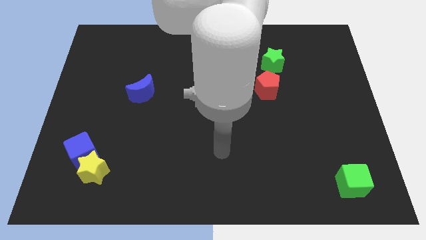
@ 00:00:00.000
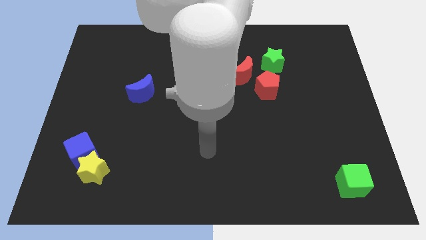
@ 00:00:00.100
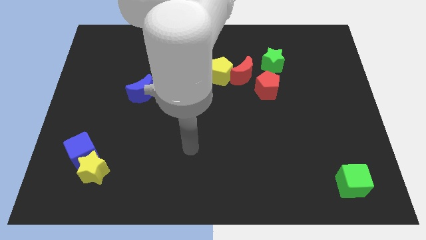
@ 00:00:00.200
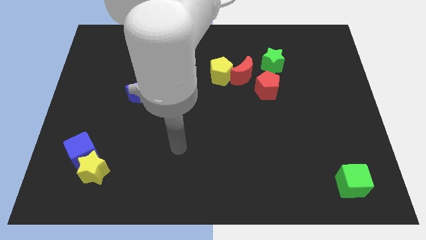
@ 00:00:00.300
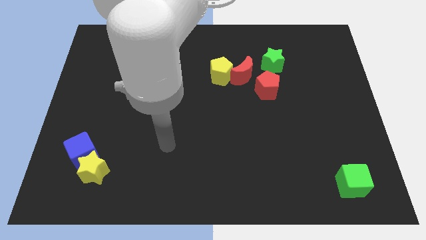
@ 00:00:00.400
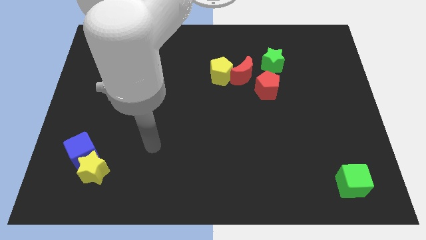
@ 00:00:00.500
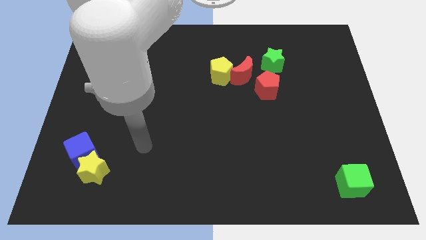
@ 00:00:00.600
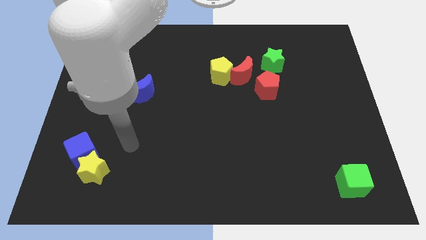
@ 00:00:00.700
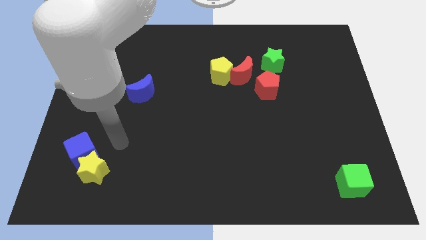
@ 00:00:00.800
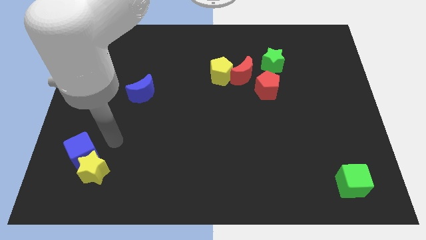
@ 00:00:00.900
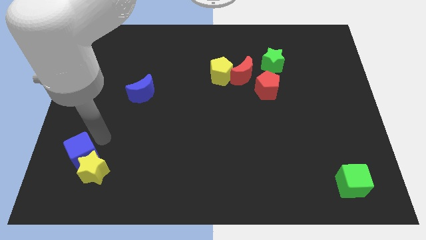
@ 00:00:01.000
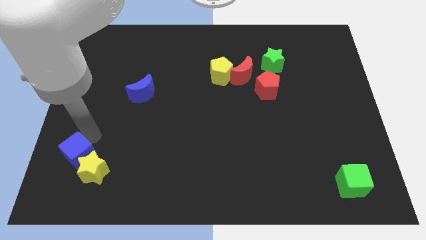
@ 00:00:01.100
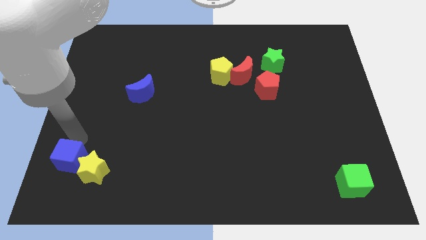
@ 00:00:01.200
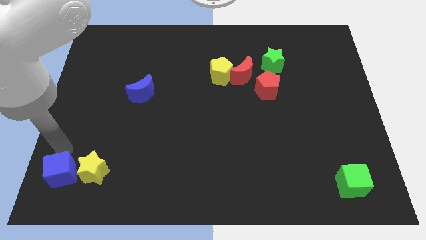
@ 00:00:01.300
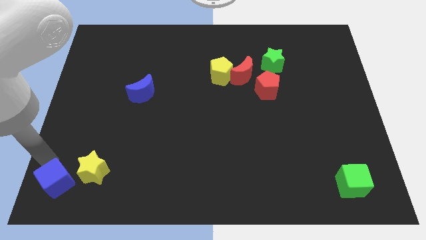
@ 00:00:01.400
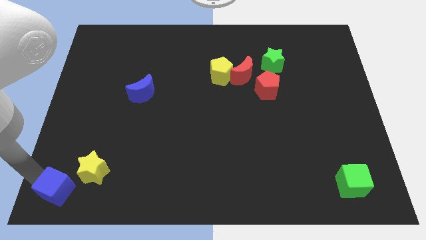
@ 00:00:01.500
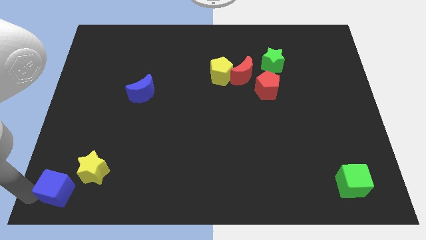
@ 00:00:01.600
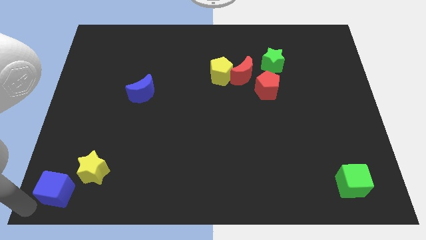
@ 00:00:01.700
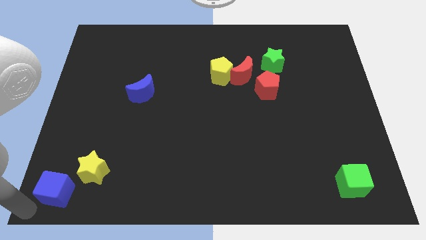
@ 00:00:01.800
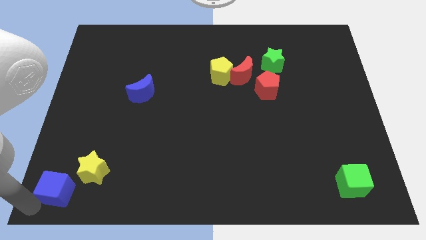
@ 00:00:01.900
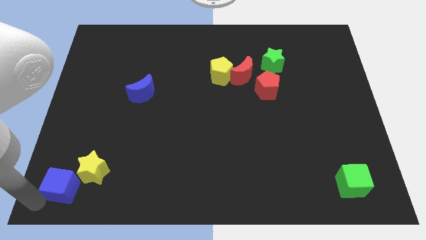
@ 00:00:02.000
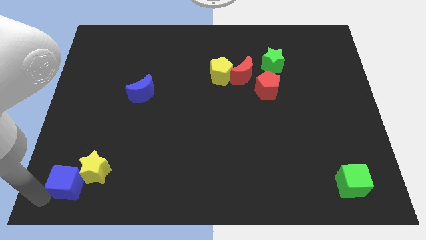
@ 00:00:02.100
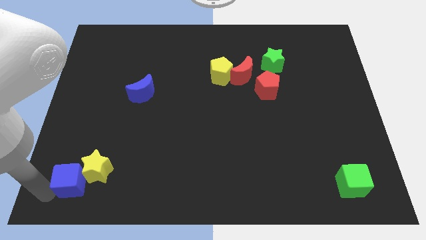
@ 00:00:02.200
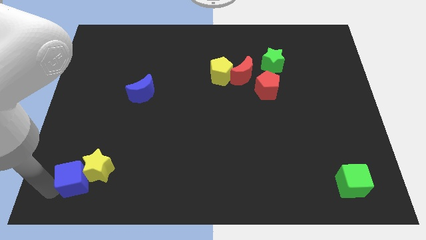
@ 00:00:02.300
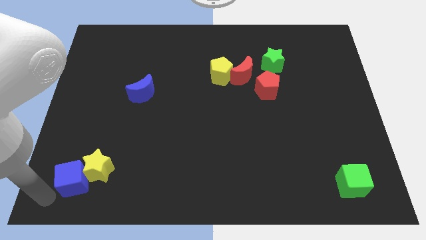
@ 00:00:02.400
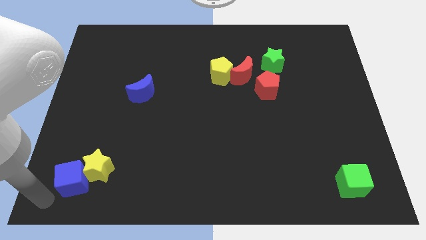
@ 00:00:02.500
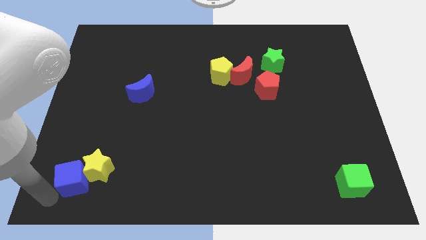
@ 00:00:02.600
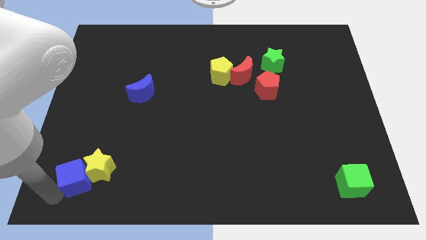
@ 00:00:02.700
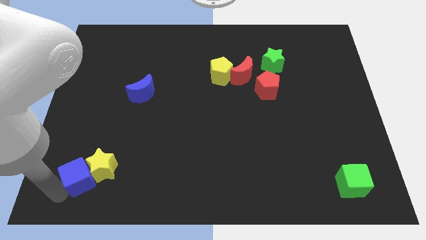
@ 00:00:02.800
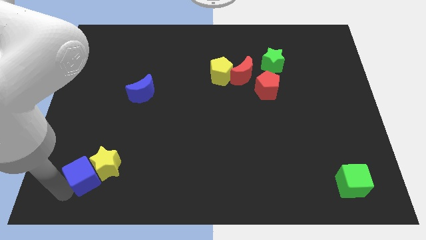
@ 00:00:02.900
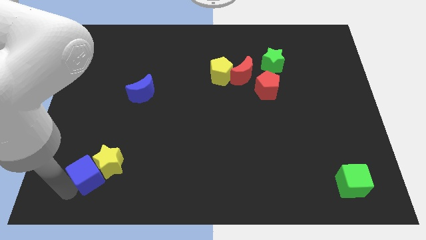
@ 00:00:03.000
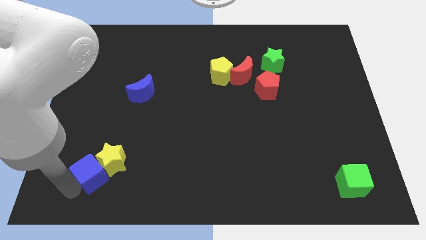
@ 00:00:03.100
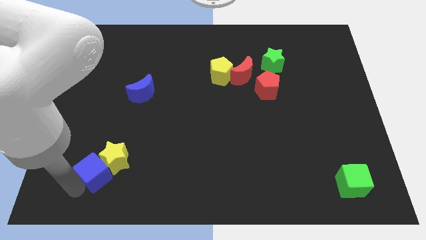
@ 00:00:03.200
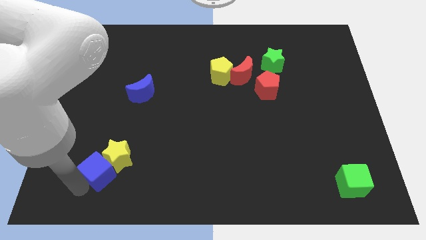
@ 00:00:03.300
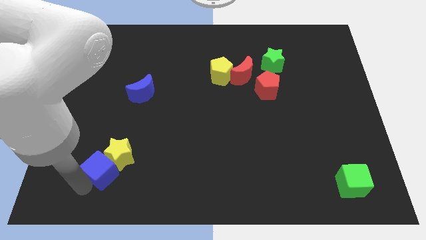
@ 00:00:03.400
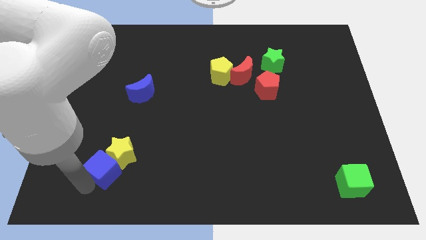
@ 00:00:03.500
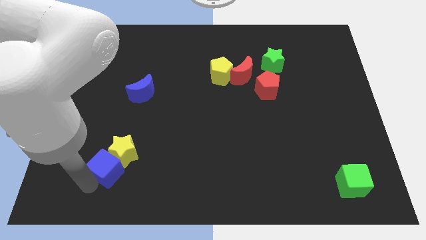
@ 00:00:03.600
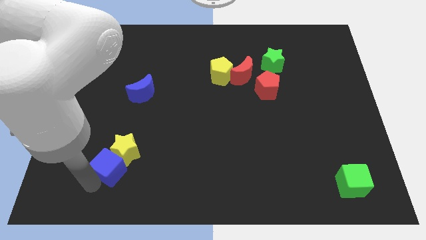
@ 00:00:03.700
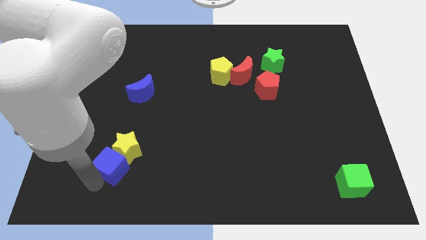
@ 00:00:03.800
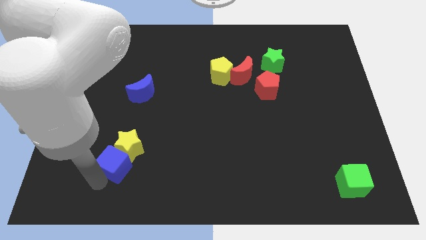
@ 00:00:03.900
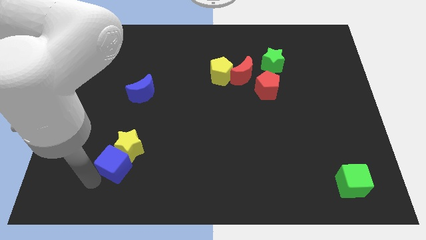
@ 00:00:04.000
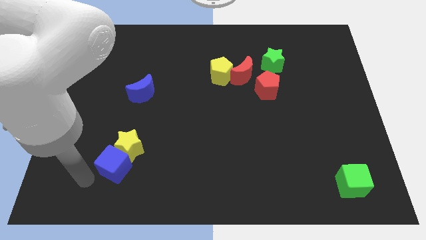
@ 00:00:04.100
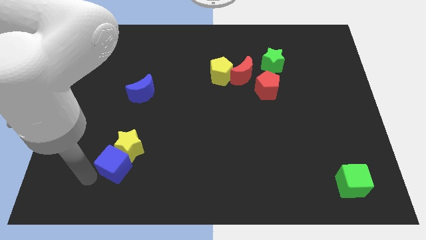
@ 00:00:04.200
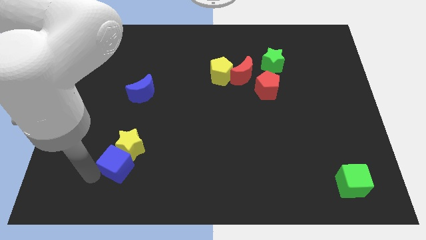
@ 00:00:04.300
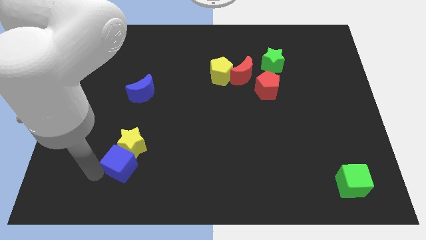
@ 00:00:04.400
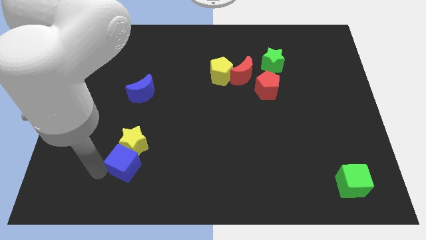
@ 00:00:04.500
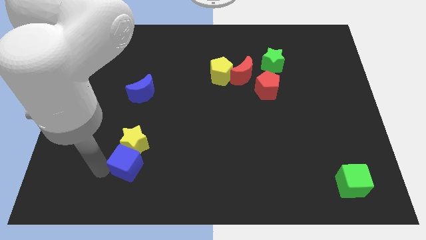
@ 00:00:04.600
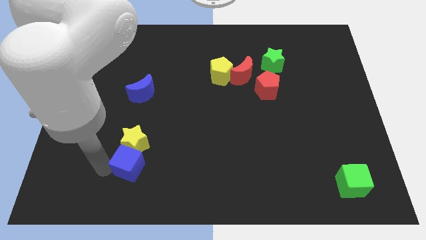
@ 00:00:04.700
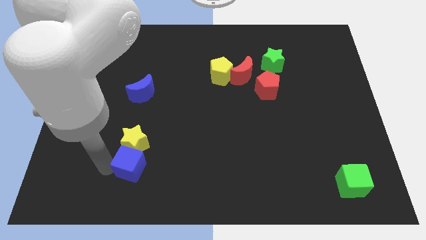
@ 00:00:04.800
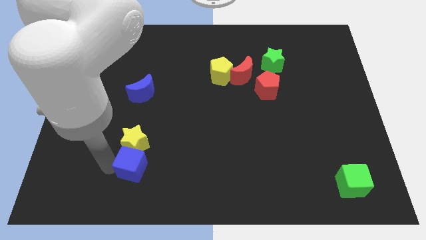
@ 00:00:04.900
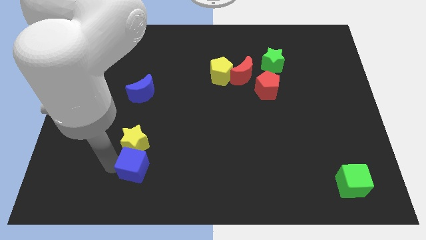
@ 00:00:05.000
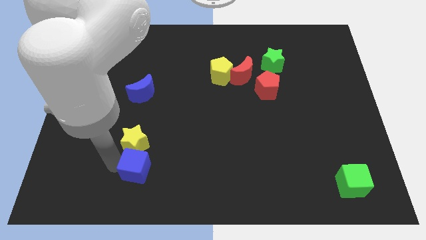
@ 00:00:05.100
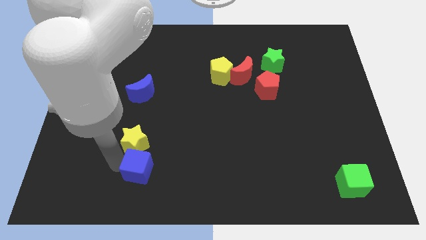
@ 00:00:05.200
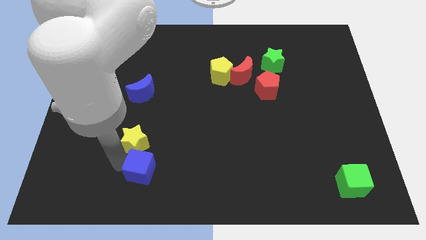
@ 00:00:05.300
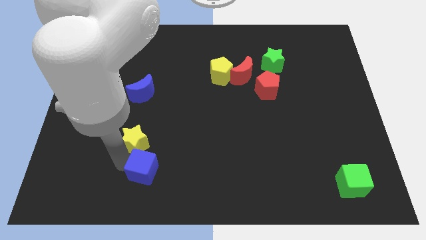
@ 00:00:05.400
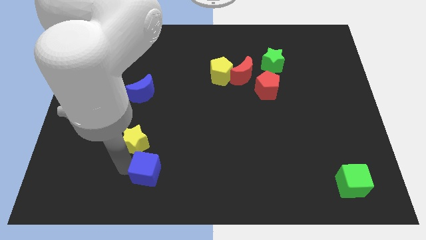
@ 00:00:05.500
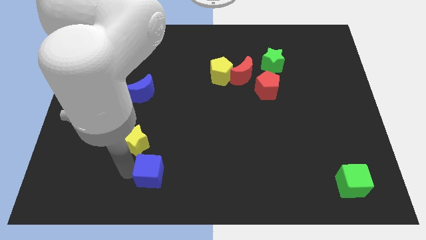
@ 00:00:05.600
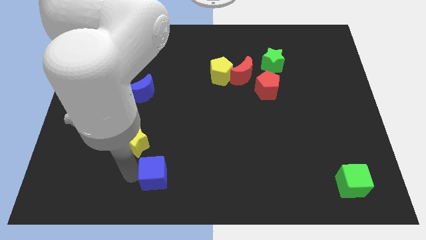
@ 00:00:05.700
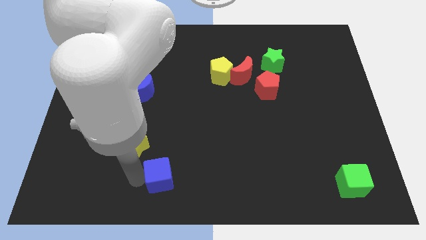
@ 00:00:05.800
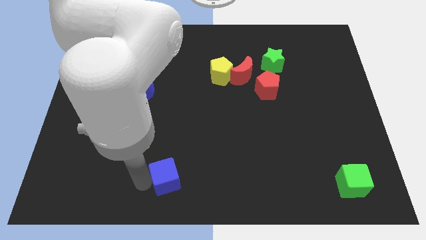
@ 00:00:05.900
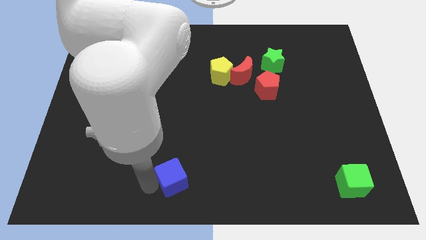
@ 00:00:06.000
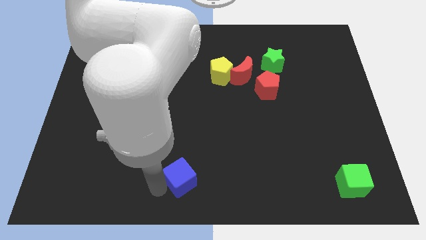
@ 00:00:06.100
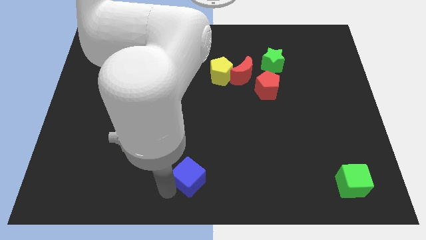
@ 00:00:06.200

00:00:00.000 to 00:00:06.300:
push the blue cube right

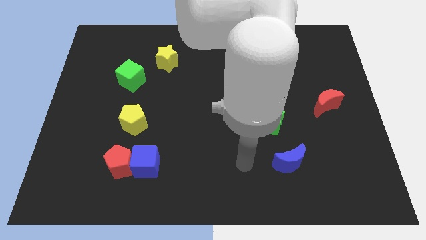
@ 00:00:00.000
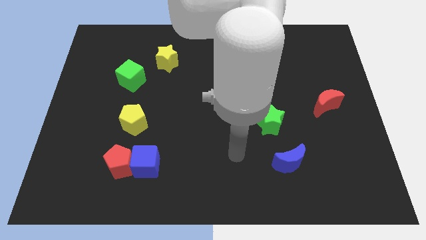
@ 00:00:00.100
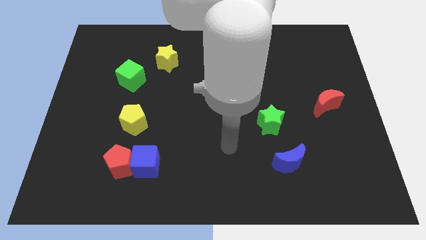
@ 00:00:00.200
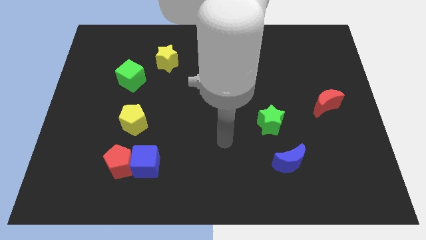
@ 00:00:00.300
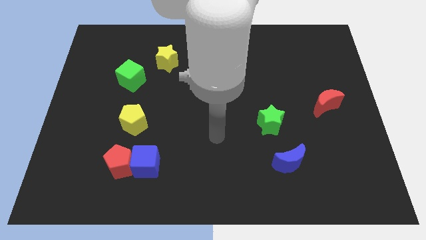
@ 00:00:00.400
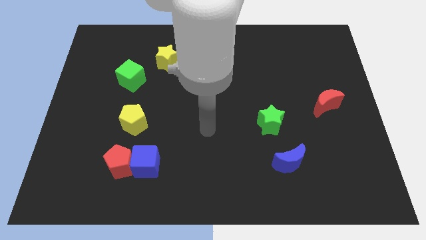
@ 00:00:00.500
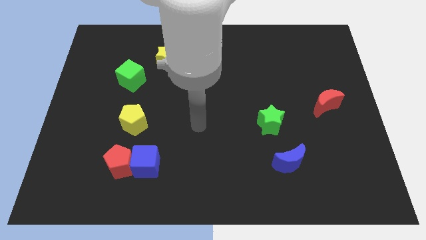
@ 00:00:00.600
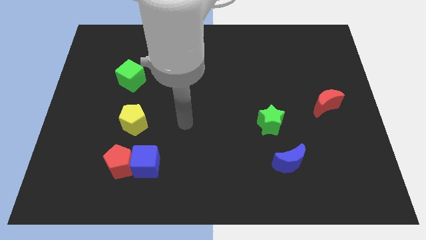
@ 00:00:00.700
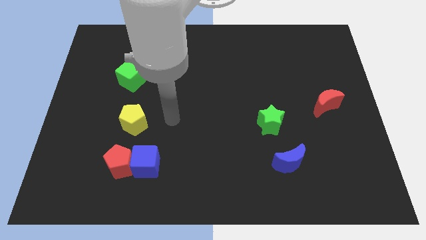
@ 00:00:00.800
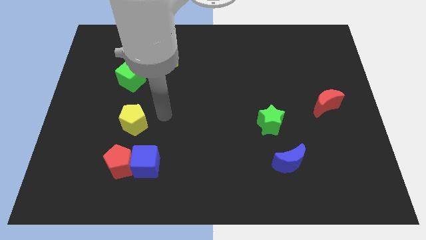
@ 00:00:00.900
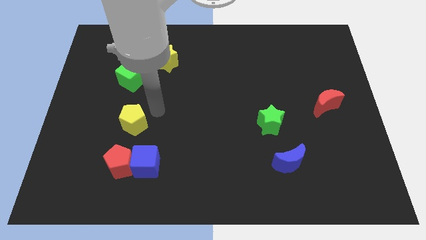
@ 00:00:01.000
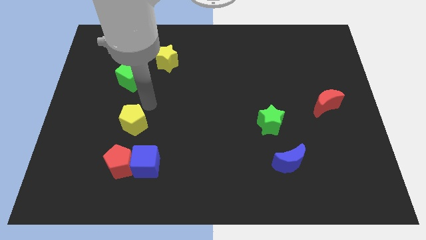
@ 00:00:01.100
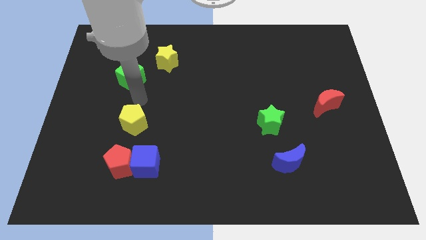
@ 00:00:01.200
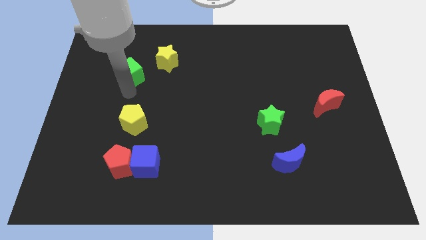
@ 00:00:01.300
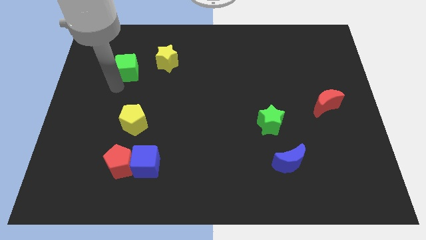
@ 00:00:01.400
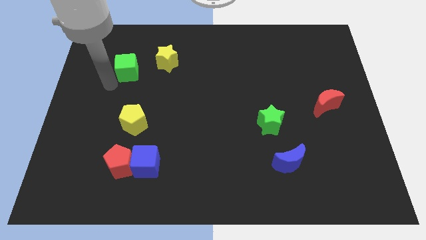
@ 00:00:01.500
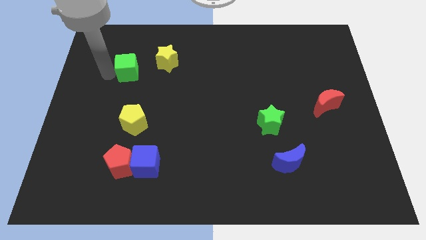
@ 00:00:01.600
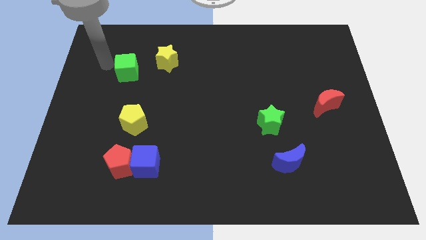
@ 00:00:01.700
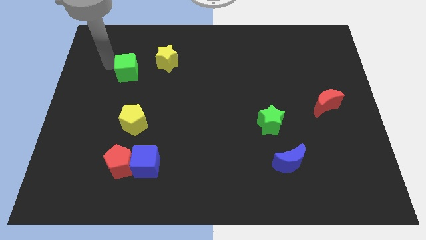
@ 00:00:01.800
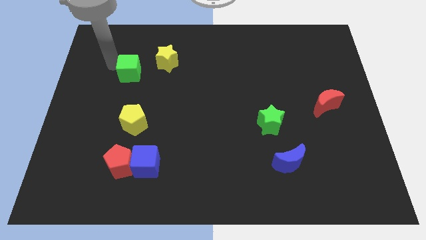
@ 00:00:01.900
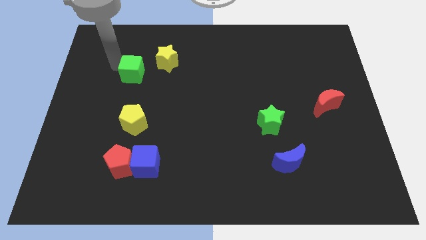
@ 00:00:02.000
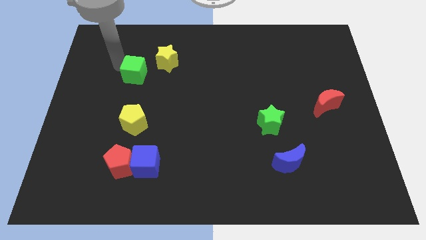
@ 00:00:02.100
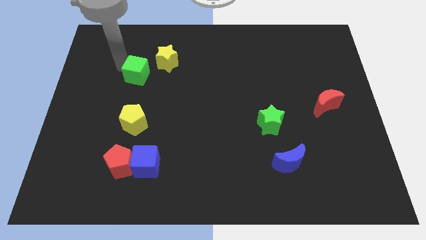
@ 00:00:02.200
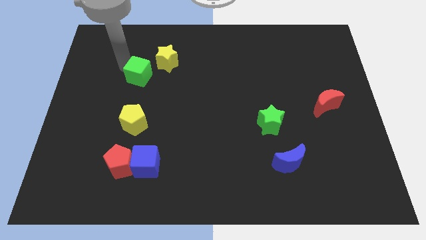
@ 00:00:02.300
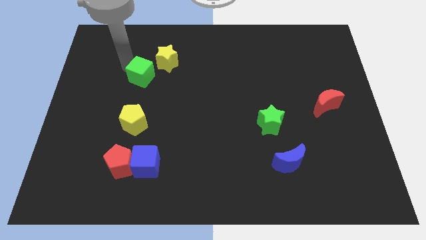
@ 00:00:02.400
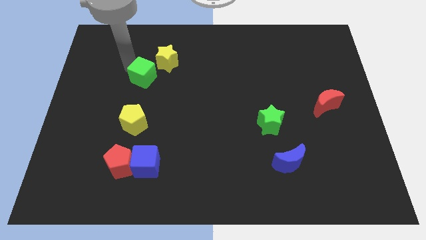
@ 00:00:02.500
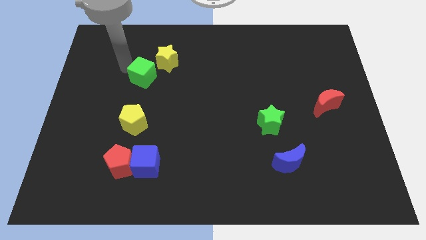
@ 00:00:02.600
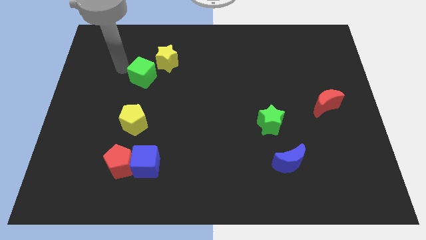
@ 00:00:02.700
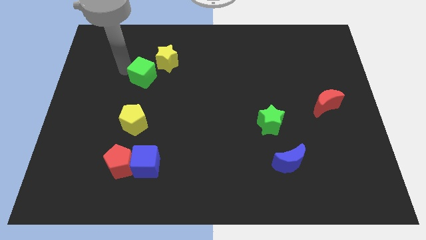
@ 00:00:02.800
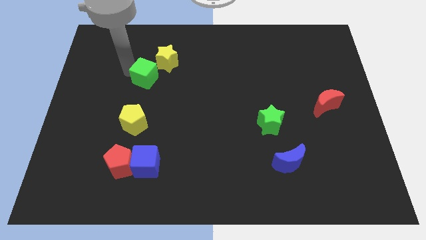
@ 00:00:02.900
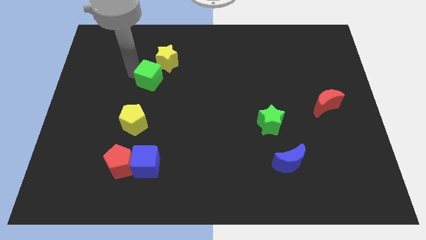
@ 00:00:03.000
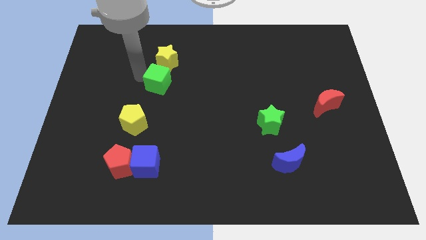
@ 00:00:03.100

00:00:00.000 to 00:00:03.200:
move the green cube a little to the right
